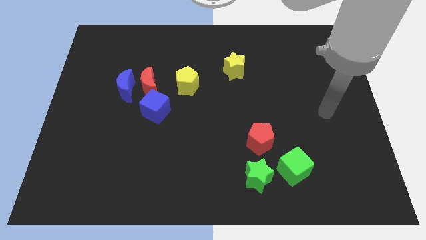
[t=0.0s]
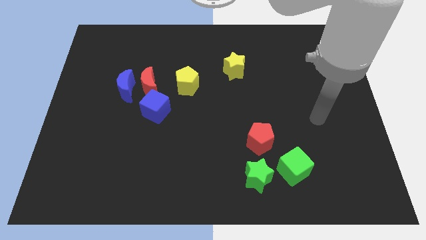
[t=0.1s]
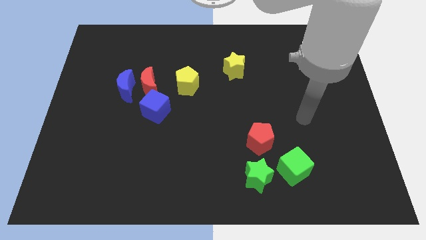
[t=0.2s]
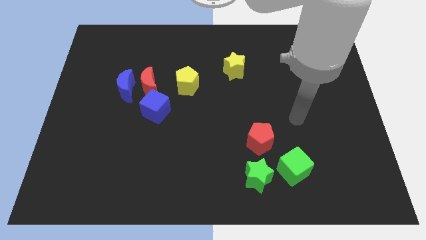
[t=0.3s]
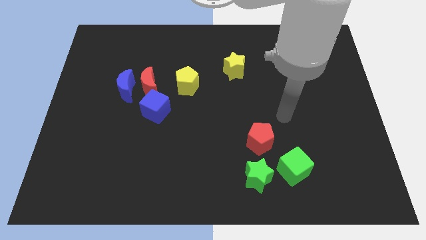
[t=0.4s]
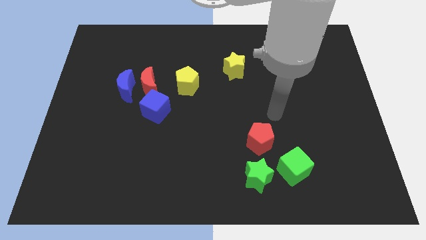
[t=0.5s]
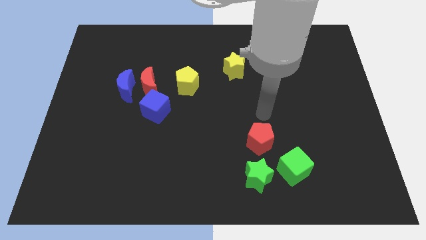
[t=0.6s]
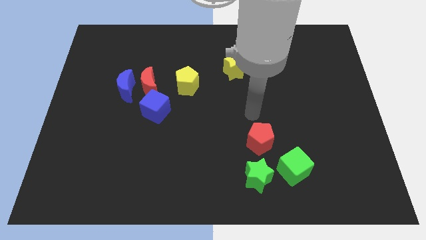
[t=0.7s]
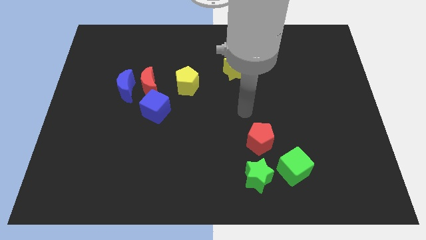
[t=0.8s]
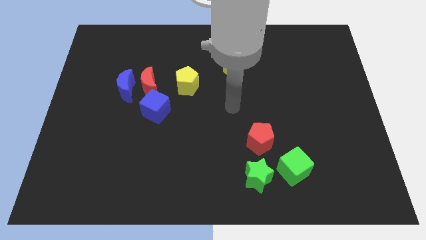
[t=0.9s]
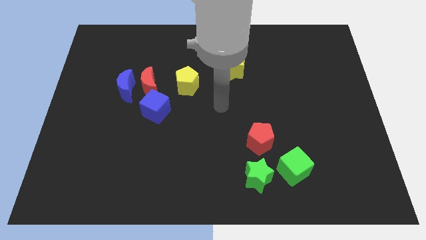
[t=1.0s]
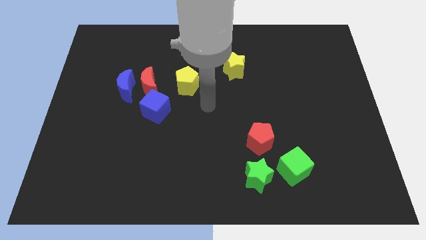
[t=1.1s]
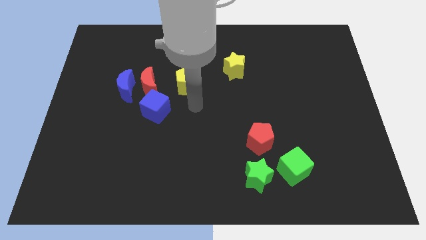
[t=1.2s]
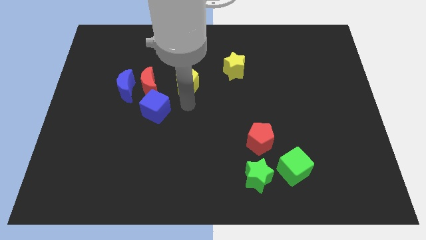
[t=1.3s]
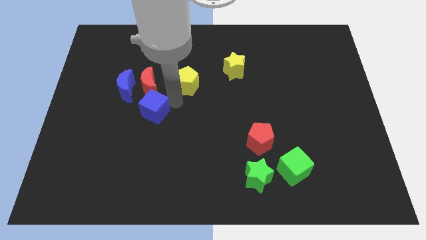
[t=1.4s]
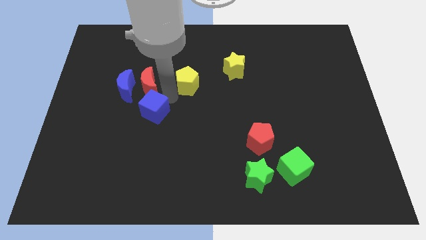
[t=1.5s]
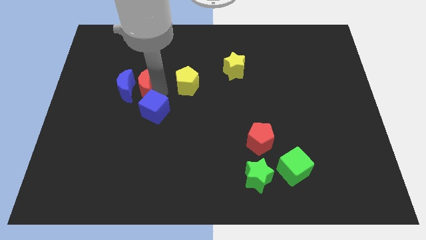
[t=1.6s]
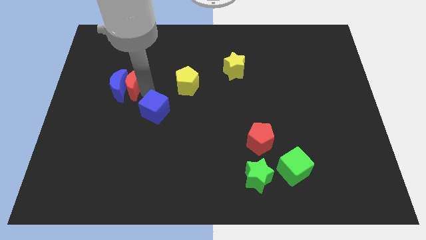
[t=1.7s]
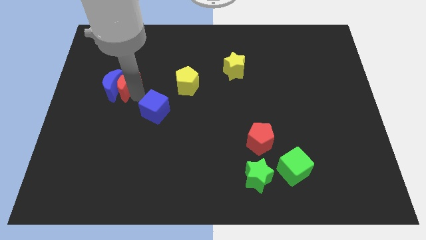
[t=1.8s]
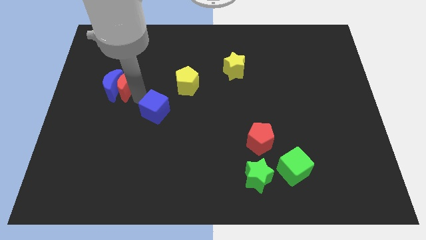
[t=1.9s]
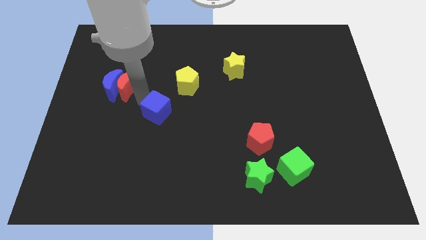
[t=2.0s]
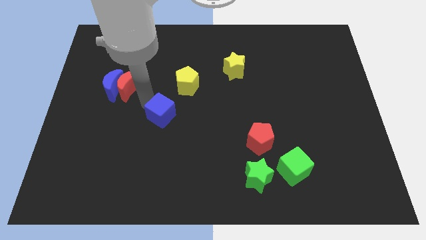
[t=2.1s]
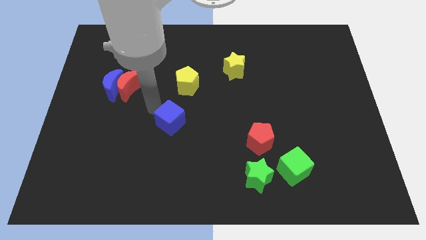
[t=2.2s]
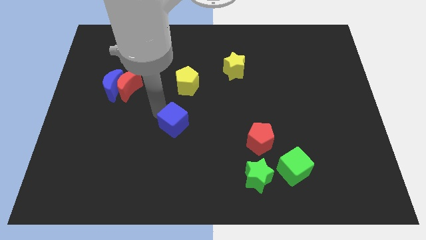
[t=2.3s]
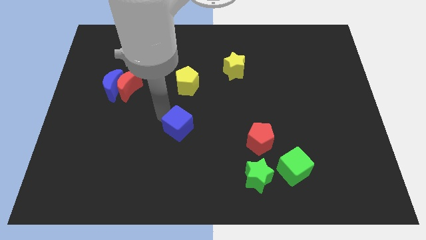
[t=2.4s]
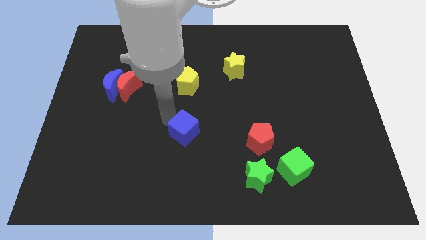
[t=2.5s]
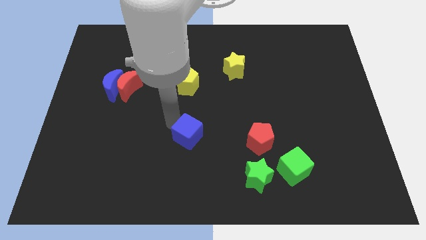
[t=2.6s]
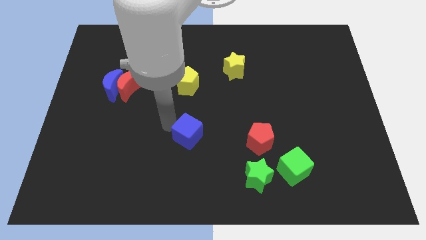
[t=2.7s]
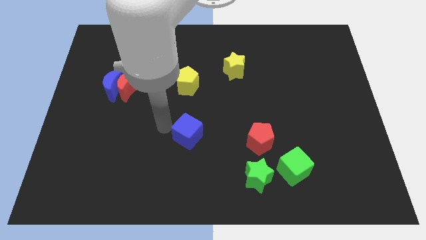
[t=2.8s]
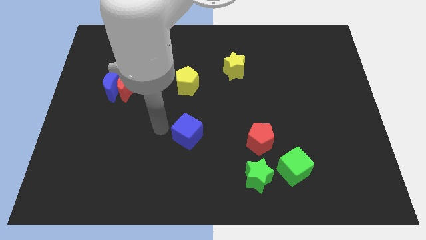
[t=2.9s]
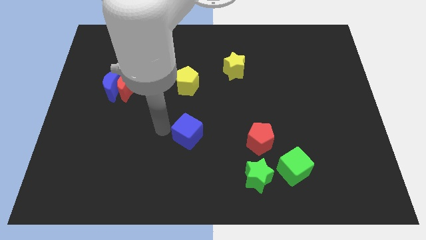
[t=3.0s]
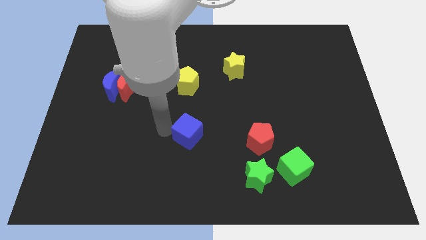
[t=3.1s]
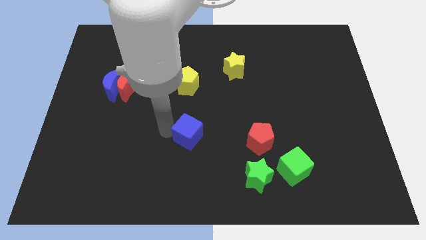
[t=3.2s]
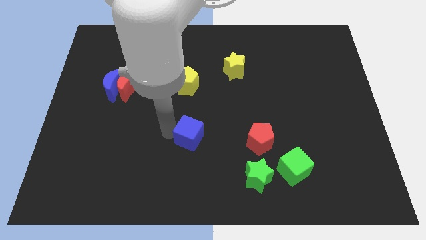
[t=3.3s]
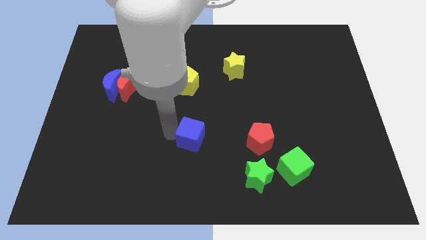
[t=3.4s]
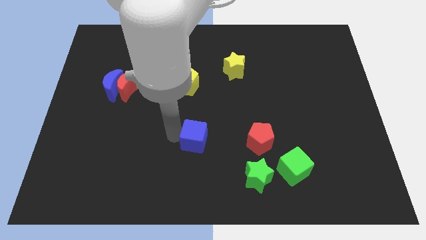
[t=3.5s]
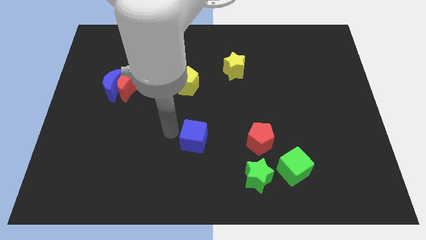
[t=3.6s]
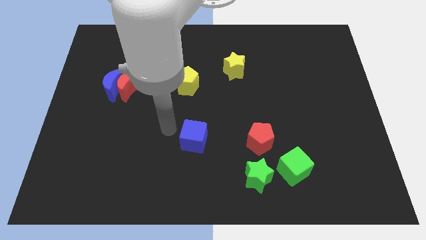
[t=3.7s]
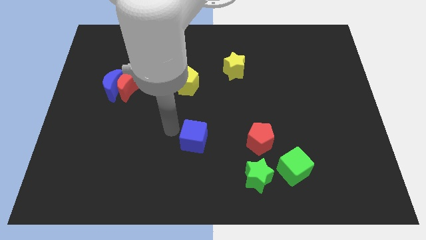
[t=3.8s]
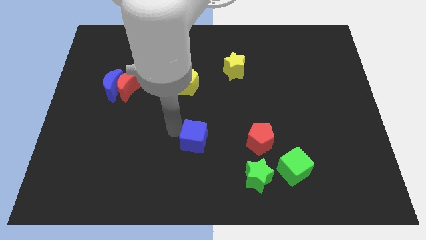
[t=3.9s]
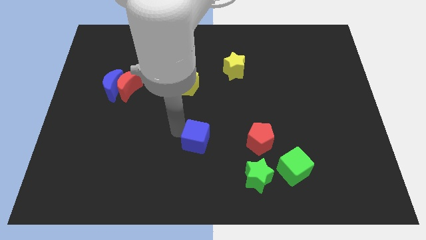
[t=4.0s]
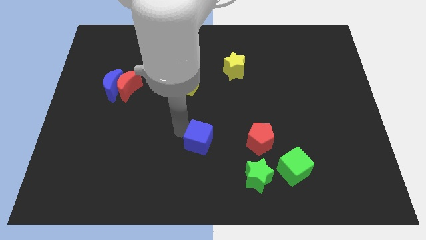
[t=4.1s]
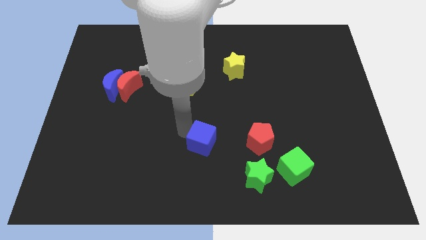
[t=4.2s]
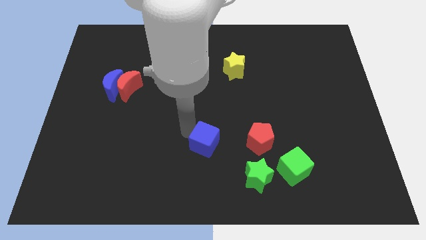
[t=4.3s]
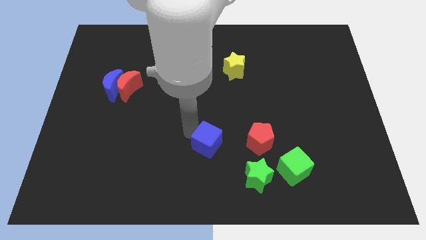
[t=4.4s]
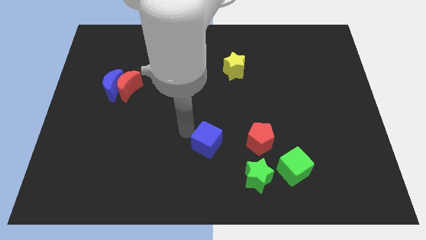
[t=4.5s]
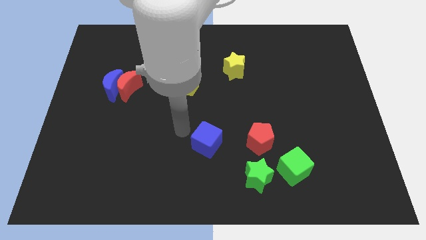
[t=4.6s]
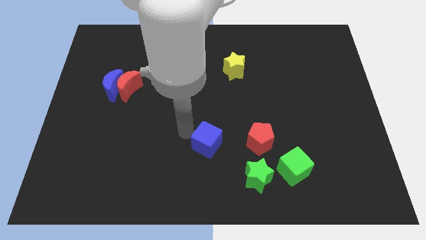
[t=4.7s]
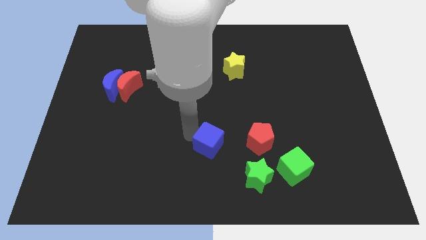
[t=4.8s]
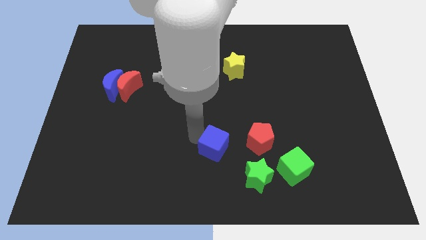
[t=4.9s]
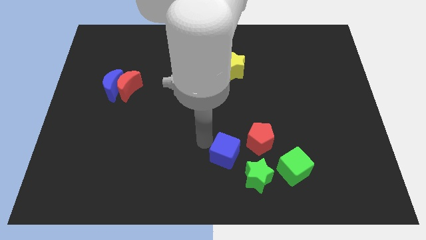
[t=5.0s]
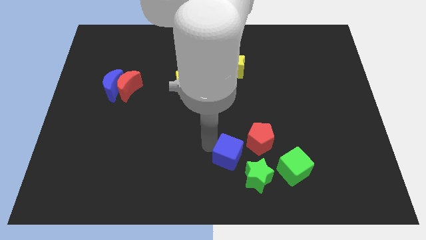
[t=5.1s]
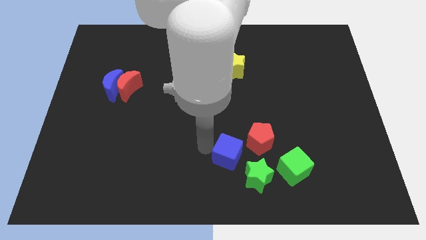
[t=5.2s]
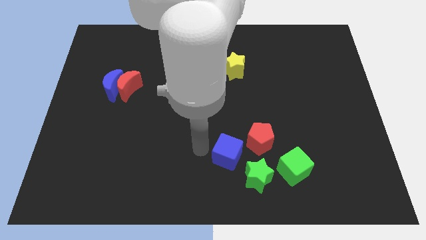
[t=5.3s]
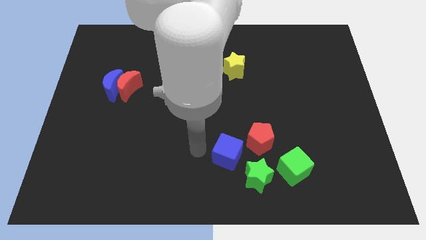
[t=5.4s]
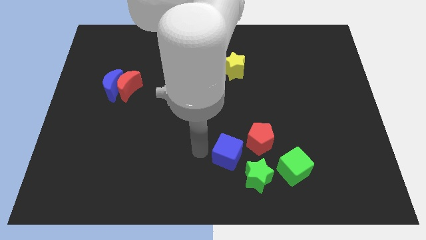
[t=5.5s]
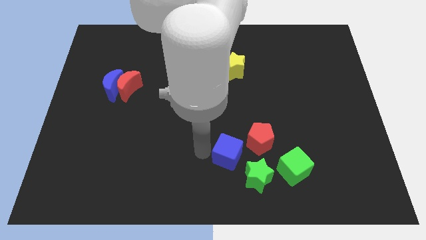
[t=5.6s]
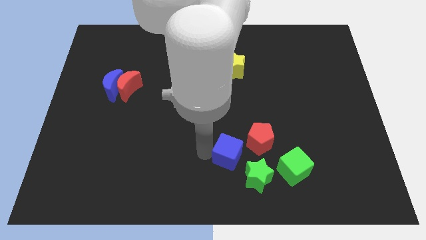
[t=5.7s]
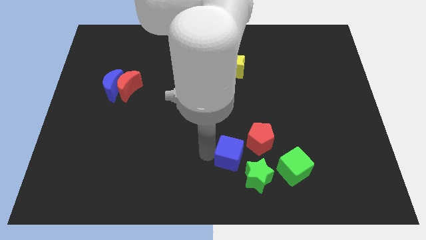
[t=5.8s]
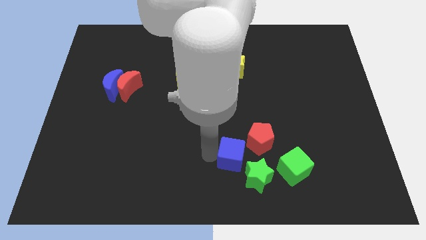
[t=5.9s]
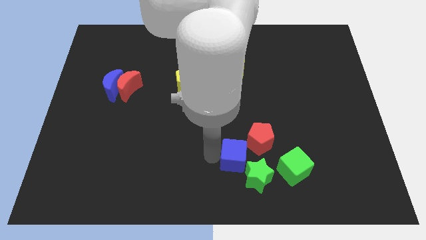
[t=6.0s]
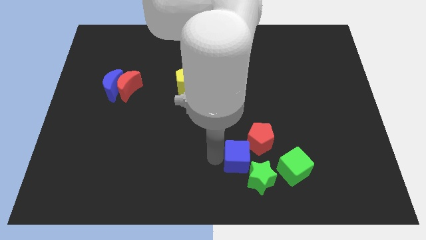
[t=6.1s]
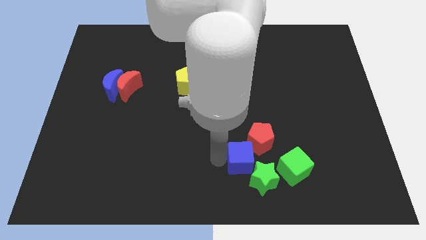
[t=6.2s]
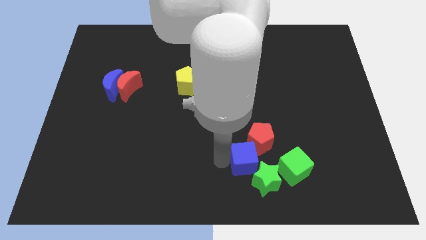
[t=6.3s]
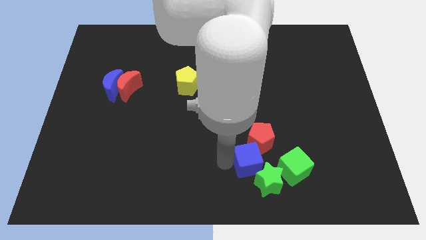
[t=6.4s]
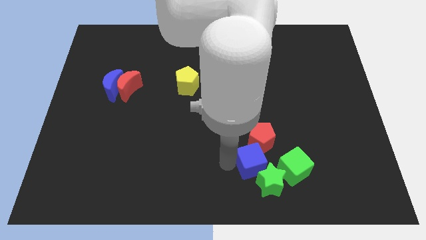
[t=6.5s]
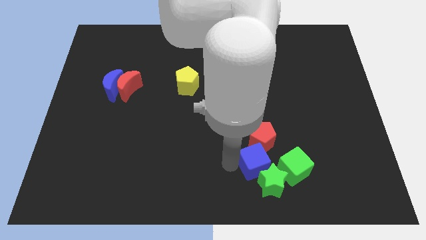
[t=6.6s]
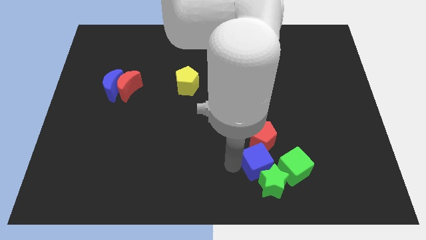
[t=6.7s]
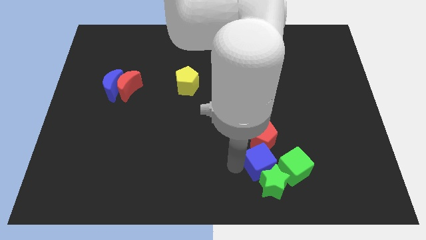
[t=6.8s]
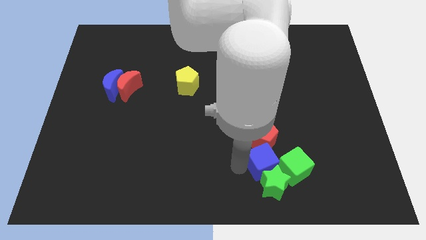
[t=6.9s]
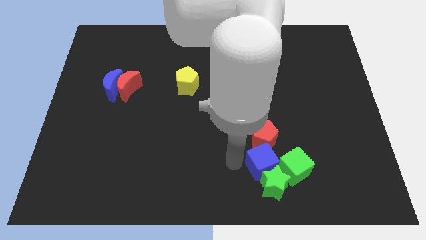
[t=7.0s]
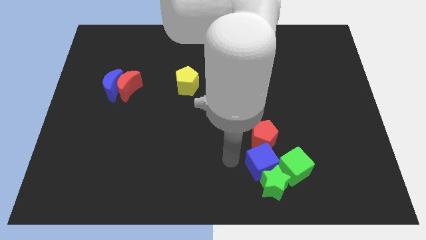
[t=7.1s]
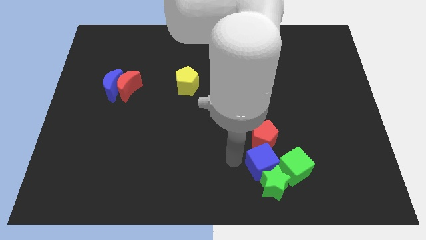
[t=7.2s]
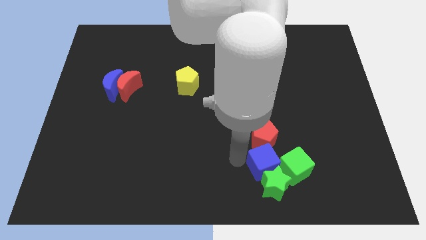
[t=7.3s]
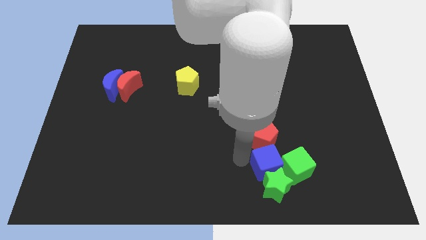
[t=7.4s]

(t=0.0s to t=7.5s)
push the blue cube next to the green cube
